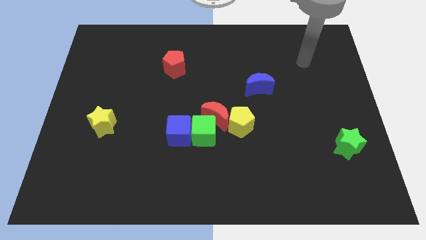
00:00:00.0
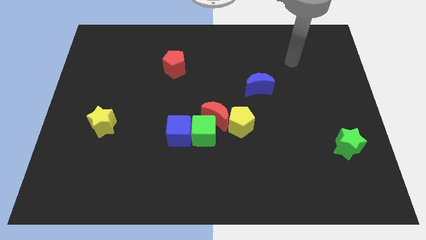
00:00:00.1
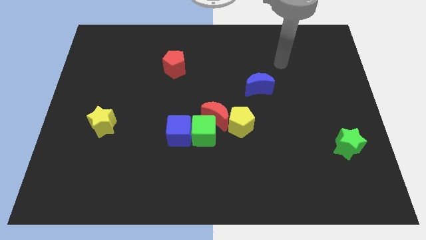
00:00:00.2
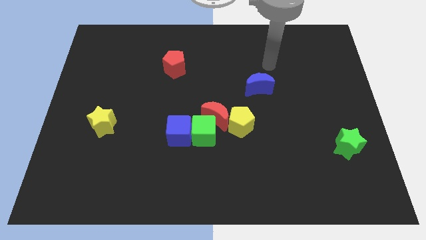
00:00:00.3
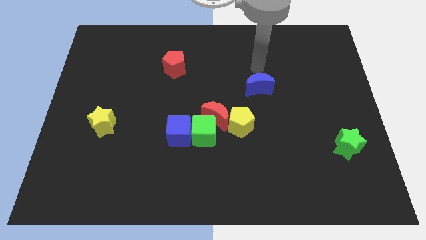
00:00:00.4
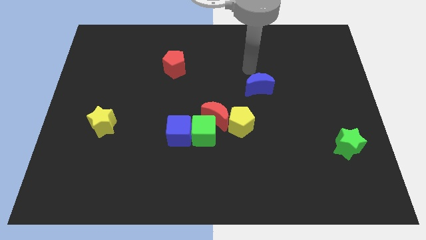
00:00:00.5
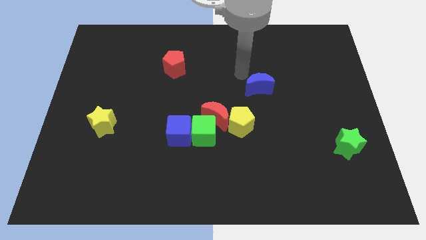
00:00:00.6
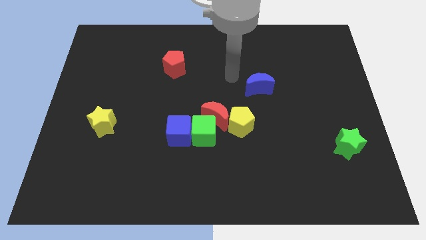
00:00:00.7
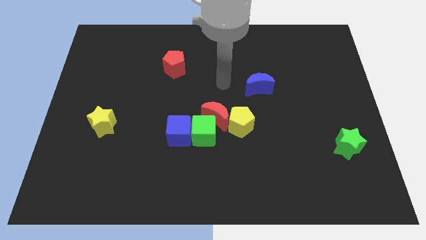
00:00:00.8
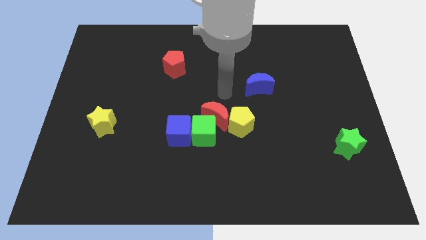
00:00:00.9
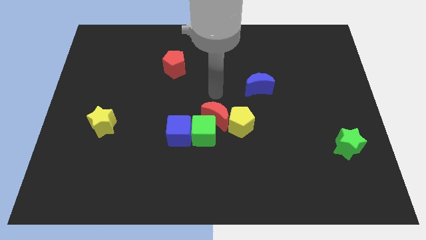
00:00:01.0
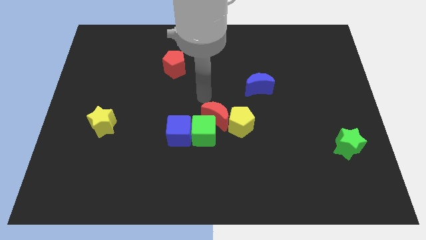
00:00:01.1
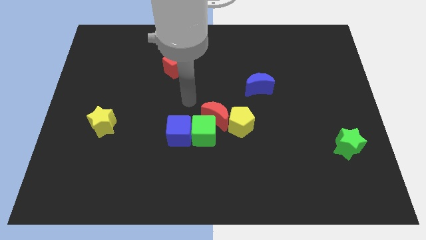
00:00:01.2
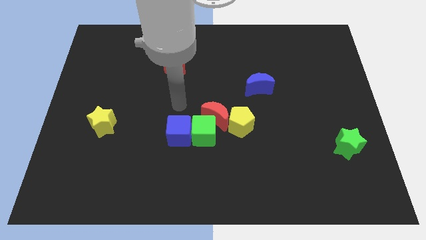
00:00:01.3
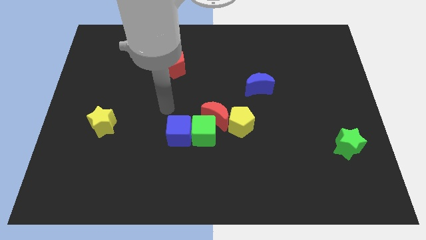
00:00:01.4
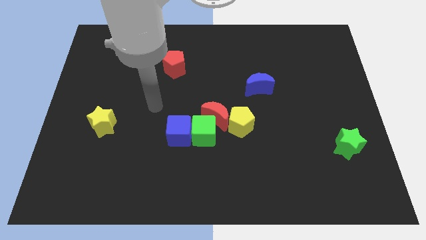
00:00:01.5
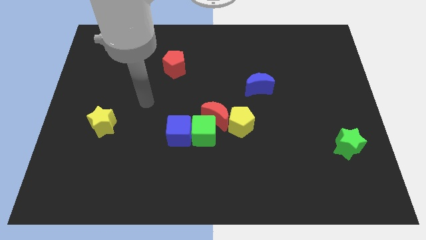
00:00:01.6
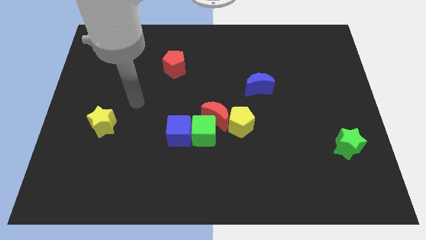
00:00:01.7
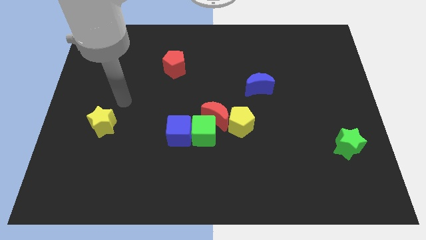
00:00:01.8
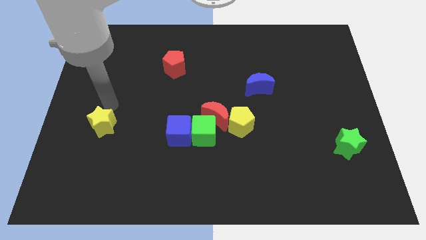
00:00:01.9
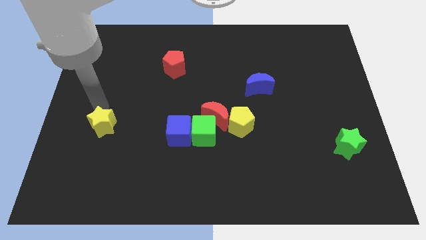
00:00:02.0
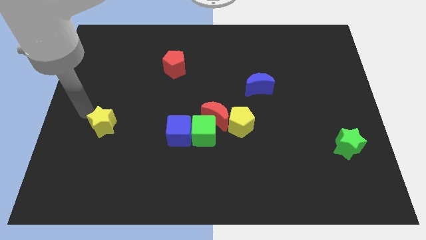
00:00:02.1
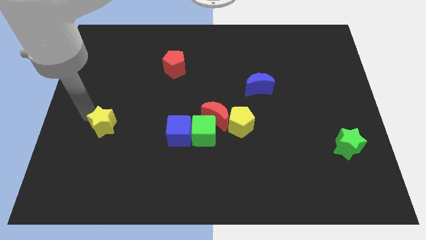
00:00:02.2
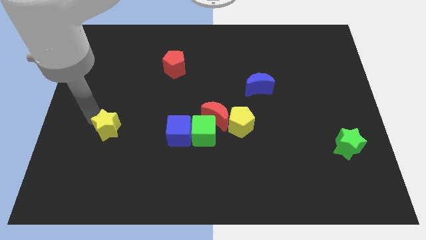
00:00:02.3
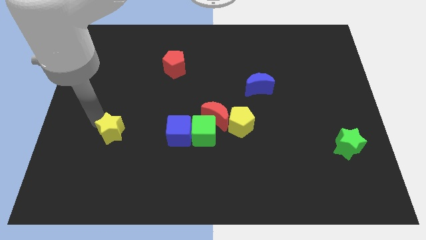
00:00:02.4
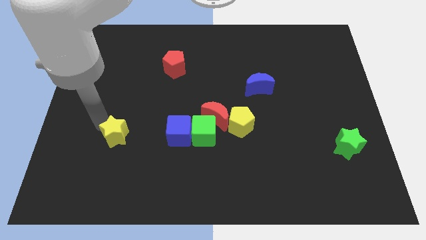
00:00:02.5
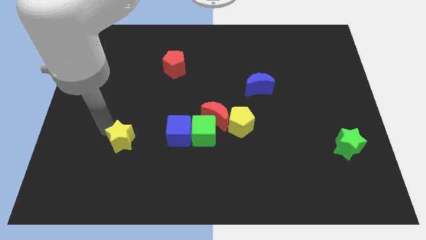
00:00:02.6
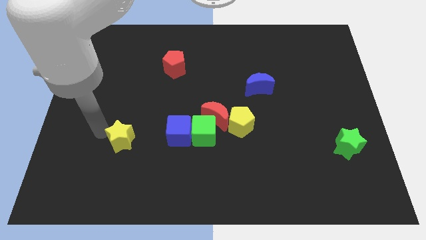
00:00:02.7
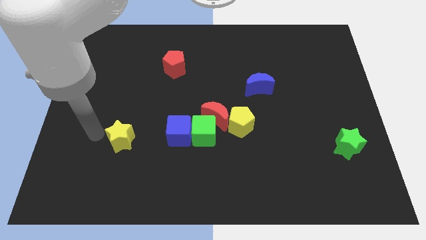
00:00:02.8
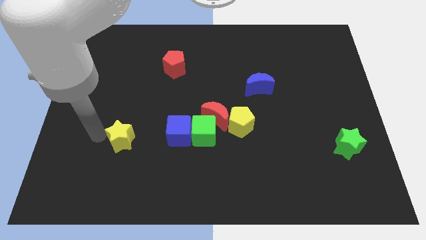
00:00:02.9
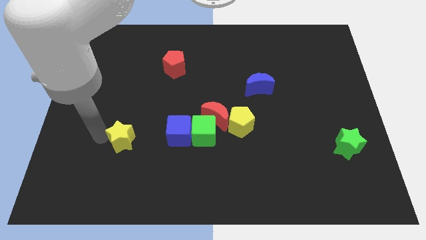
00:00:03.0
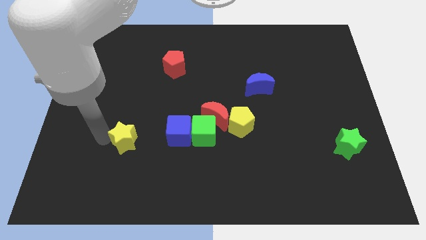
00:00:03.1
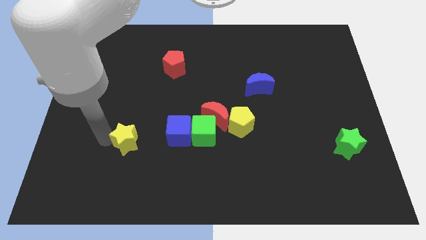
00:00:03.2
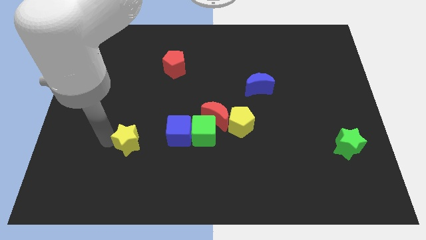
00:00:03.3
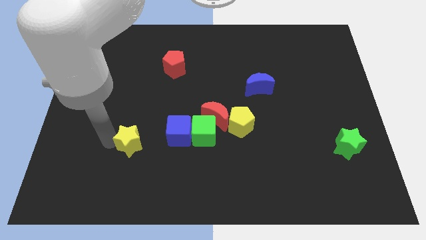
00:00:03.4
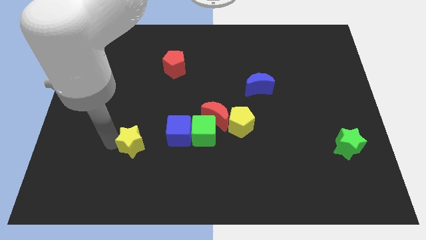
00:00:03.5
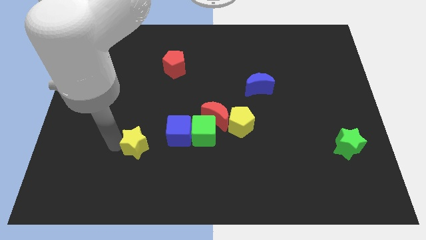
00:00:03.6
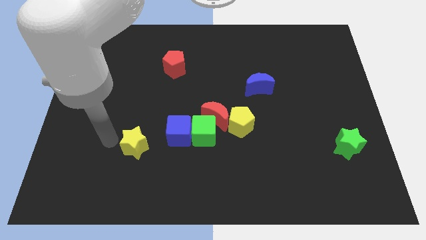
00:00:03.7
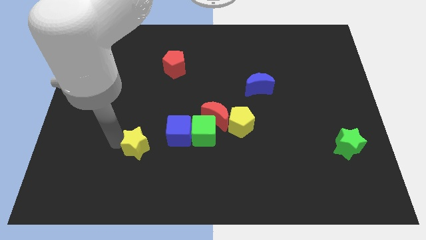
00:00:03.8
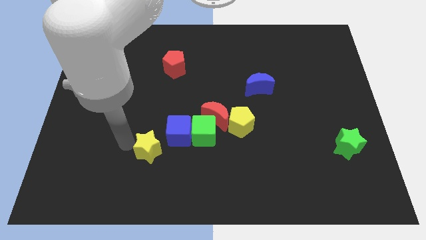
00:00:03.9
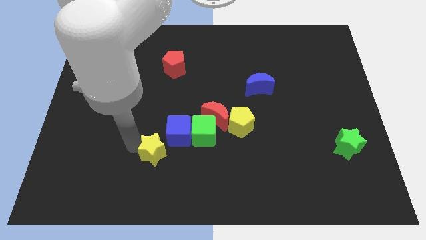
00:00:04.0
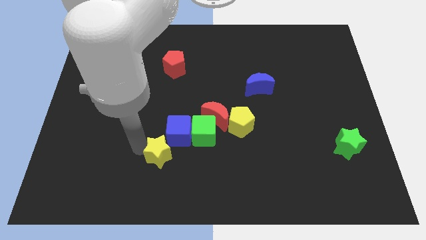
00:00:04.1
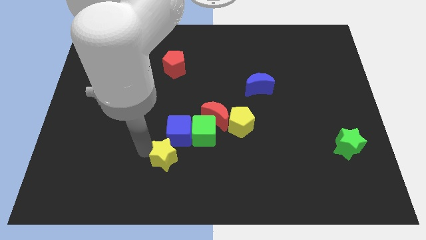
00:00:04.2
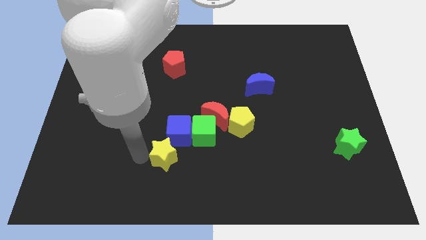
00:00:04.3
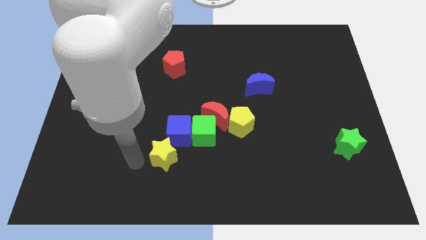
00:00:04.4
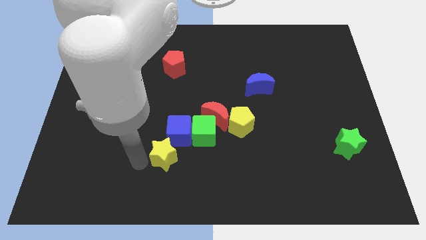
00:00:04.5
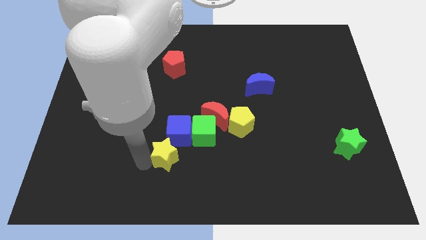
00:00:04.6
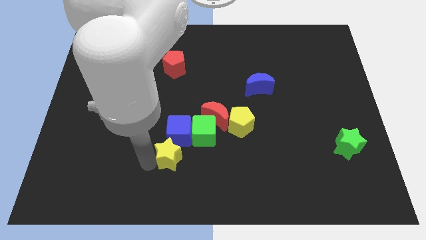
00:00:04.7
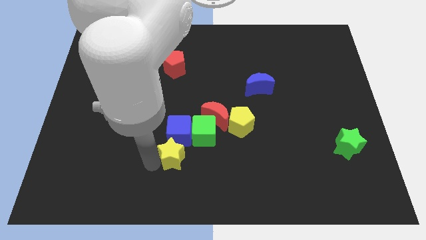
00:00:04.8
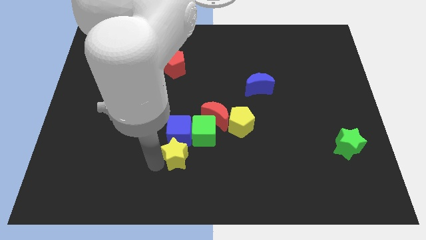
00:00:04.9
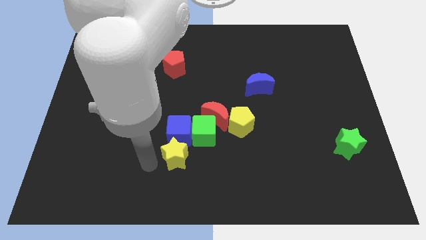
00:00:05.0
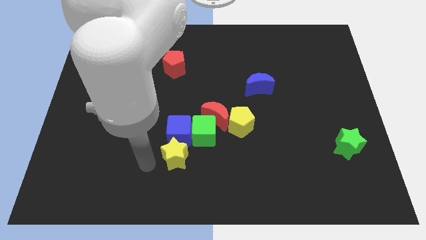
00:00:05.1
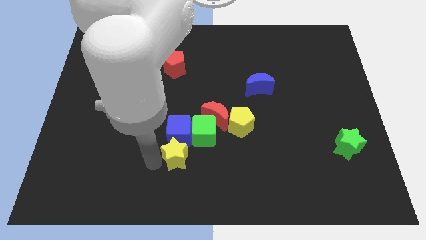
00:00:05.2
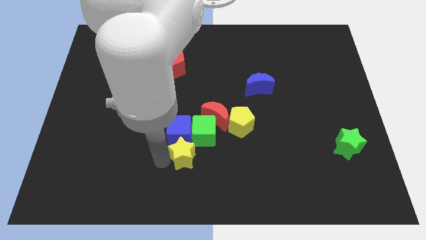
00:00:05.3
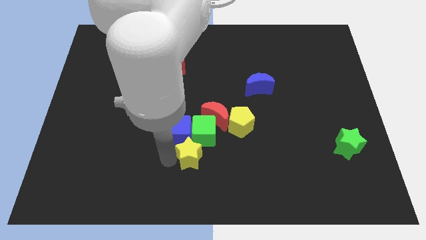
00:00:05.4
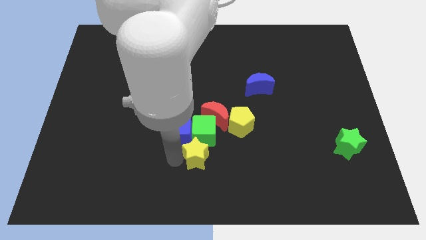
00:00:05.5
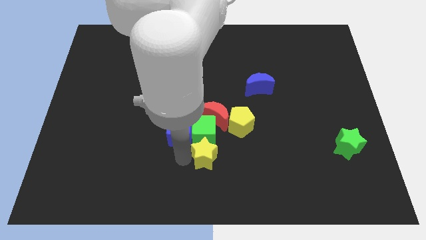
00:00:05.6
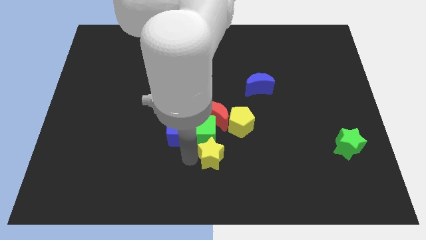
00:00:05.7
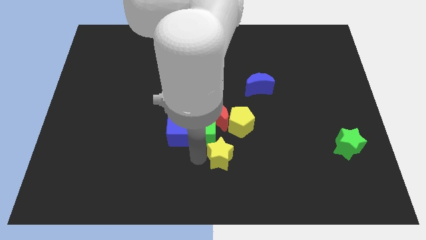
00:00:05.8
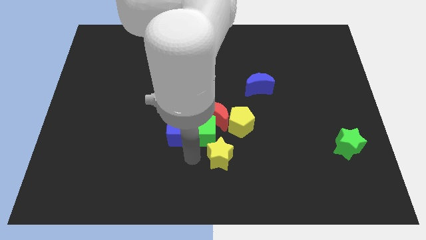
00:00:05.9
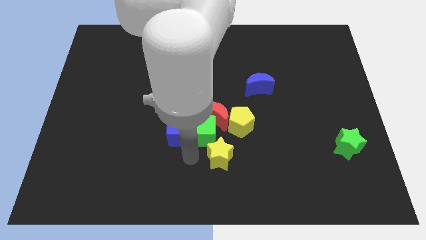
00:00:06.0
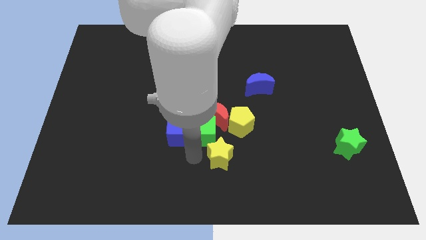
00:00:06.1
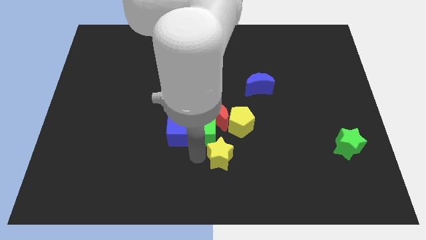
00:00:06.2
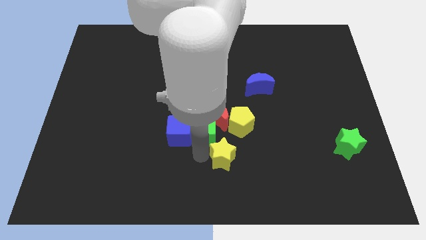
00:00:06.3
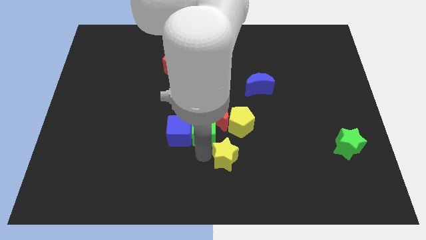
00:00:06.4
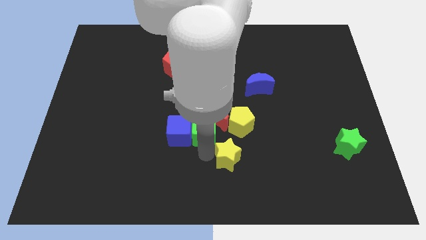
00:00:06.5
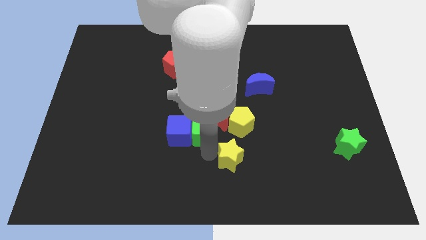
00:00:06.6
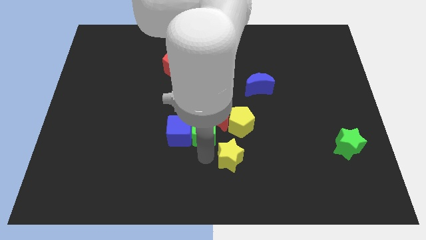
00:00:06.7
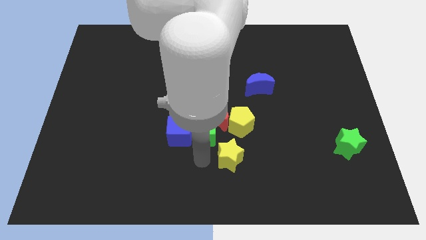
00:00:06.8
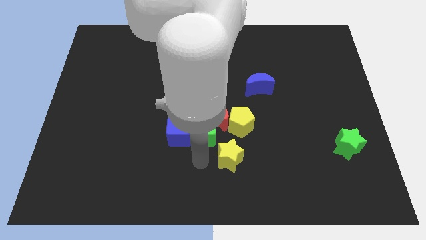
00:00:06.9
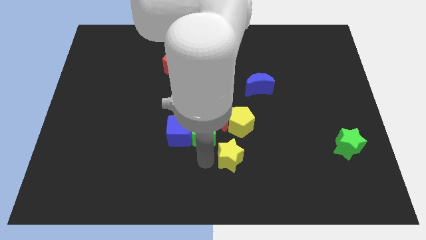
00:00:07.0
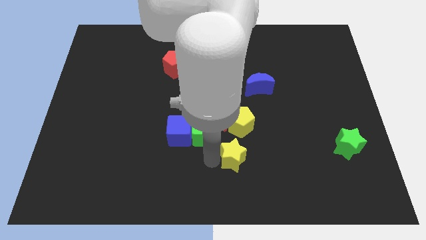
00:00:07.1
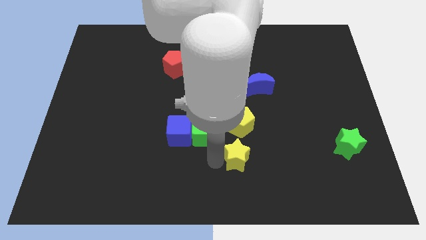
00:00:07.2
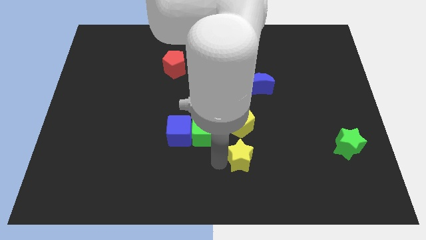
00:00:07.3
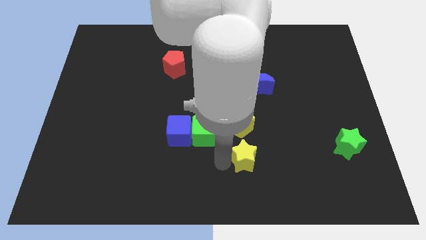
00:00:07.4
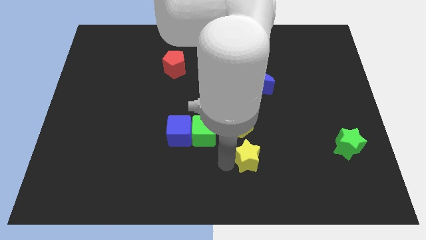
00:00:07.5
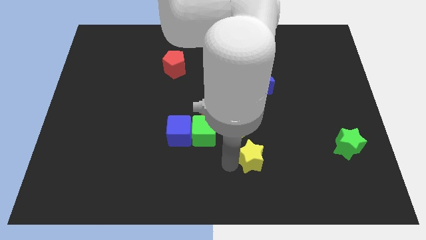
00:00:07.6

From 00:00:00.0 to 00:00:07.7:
move the yellow star to the bottom right of the yellow pentagon
